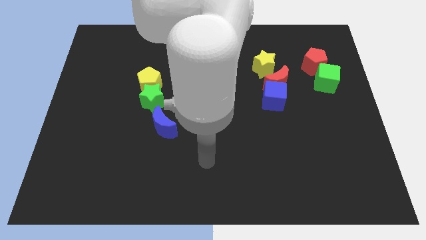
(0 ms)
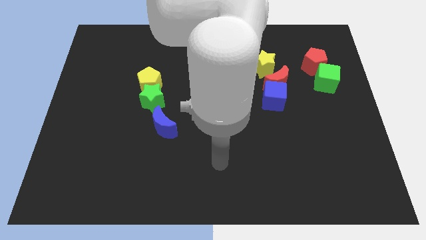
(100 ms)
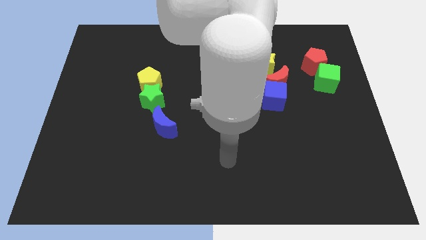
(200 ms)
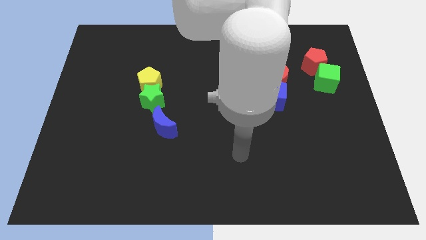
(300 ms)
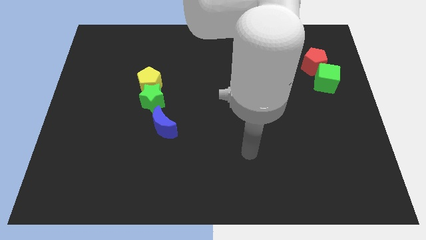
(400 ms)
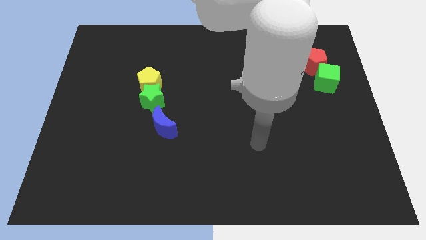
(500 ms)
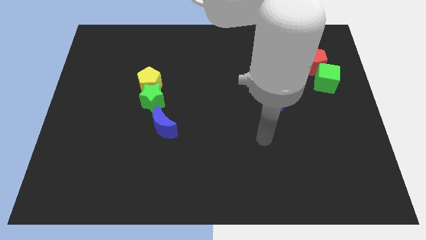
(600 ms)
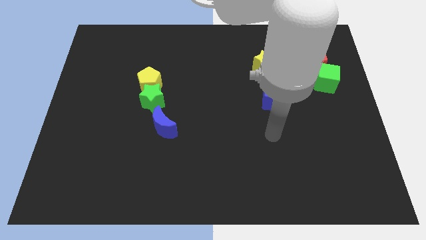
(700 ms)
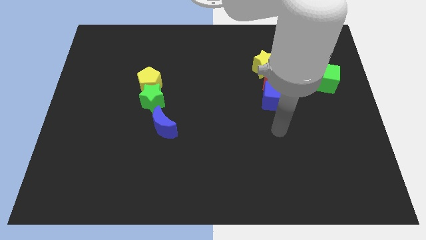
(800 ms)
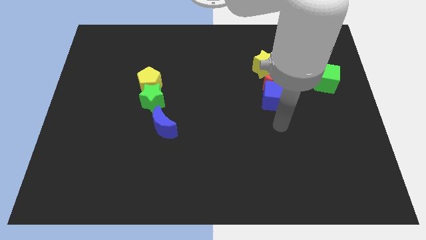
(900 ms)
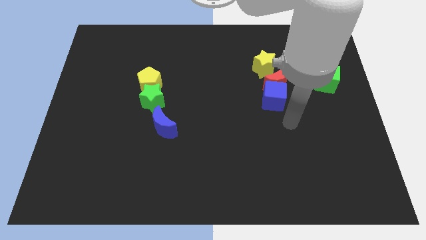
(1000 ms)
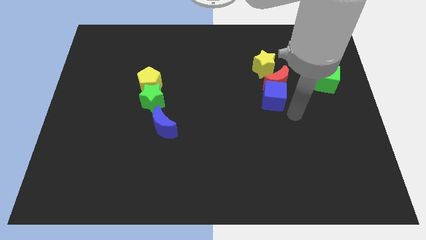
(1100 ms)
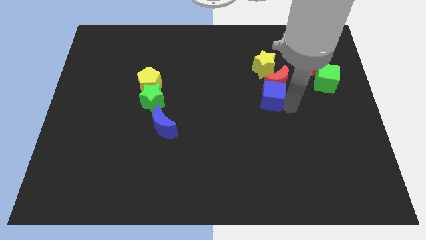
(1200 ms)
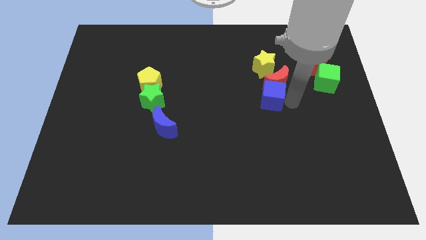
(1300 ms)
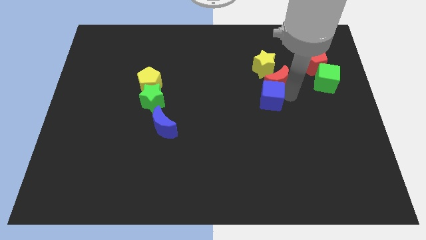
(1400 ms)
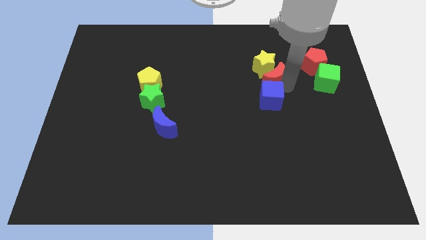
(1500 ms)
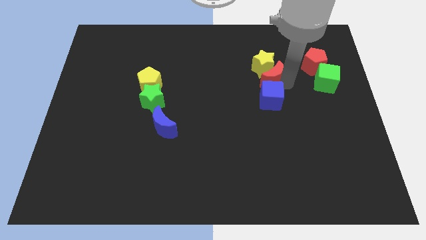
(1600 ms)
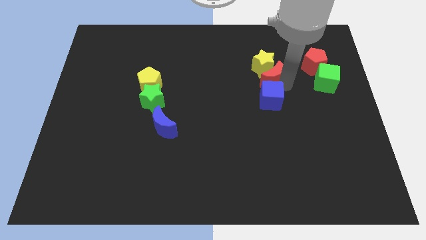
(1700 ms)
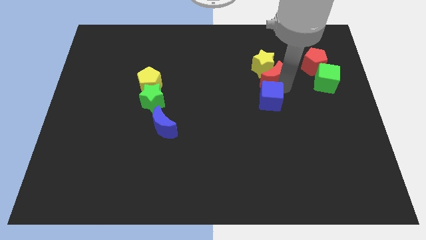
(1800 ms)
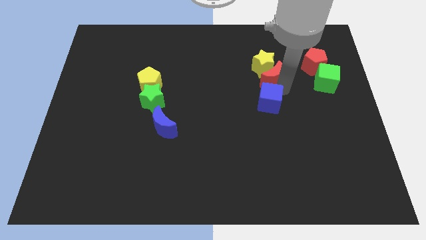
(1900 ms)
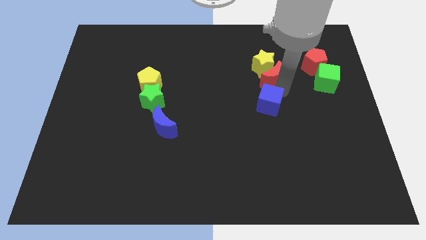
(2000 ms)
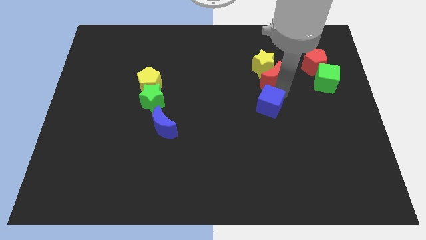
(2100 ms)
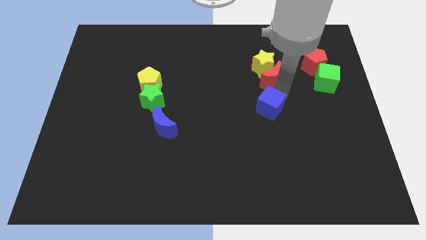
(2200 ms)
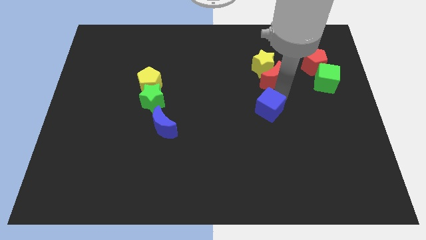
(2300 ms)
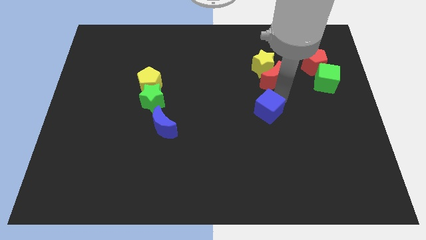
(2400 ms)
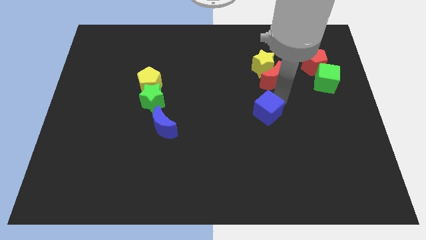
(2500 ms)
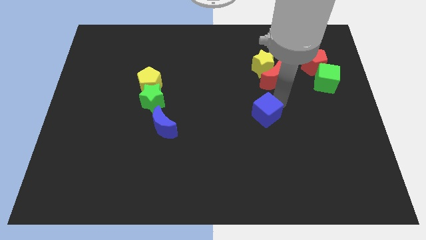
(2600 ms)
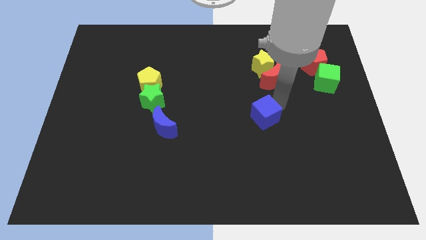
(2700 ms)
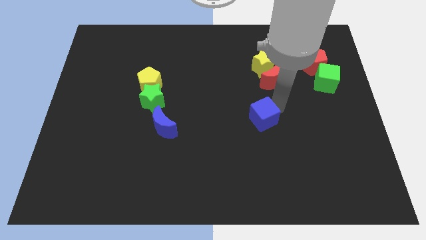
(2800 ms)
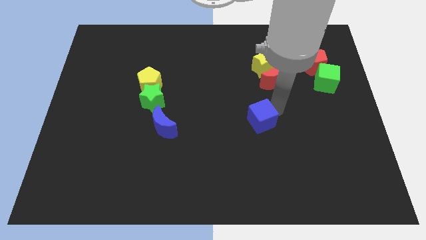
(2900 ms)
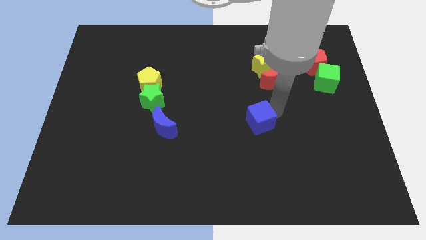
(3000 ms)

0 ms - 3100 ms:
slightly push the blue cube downwards and to the left

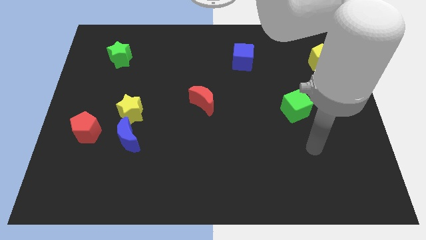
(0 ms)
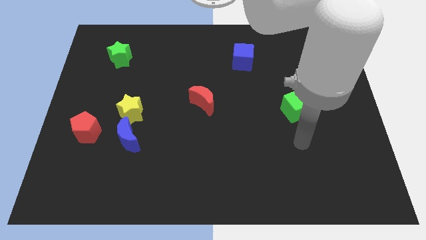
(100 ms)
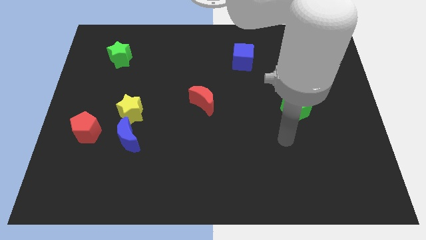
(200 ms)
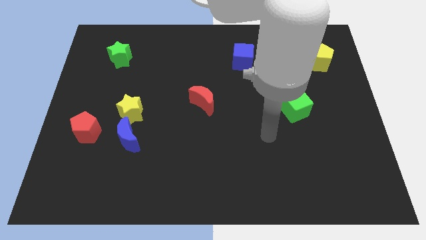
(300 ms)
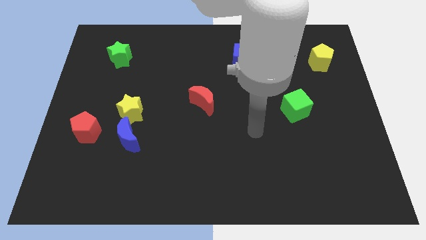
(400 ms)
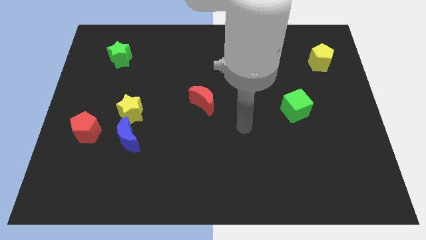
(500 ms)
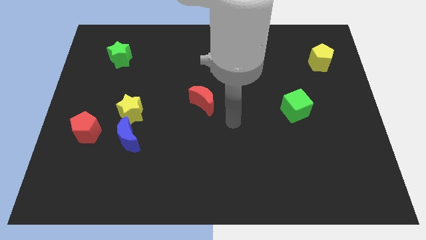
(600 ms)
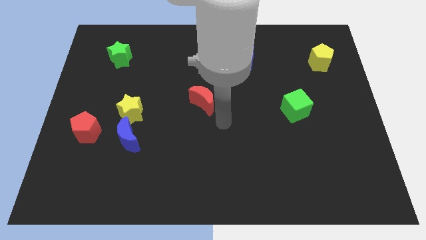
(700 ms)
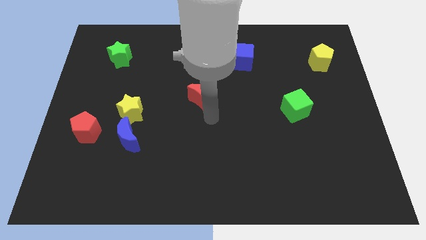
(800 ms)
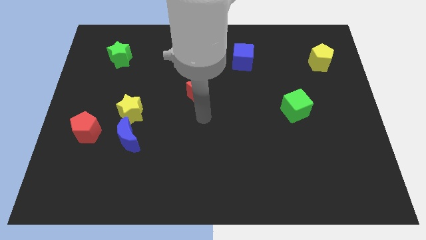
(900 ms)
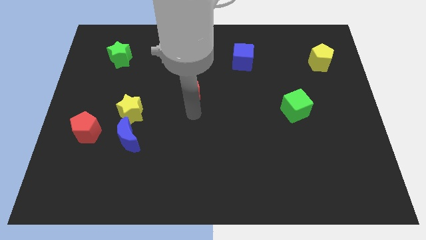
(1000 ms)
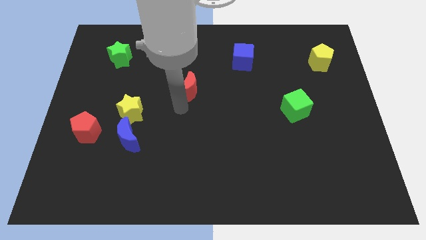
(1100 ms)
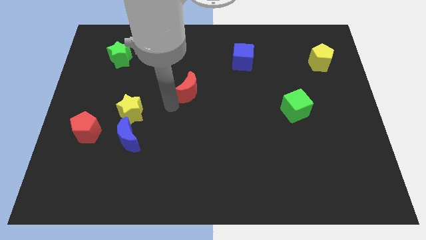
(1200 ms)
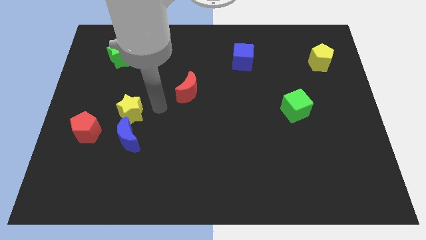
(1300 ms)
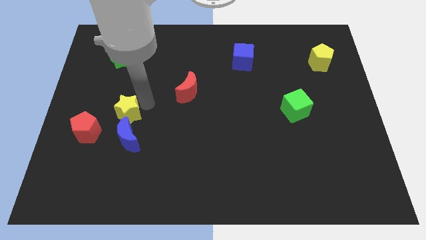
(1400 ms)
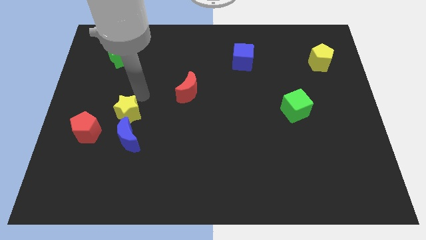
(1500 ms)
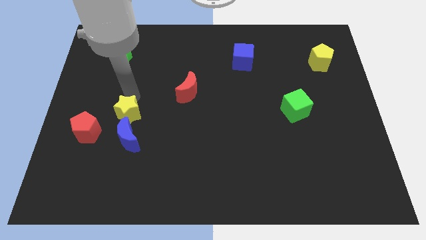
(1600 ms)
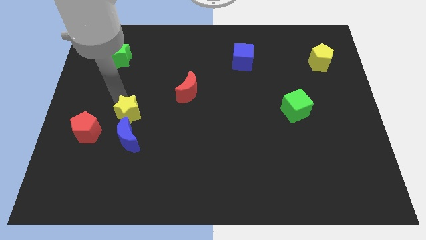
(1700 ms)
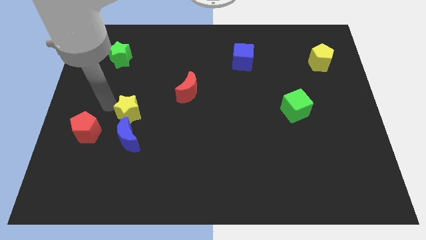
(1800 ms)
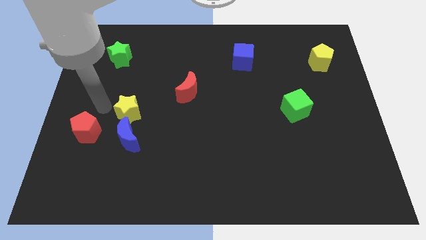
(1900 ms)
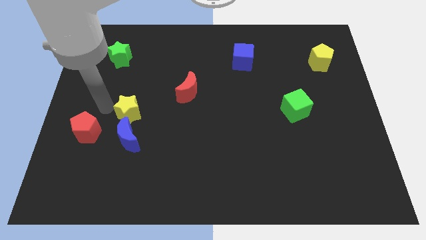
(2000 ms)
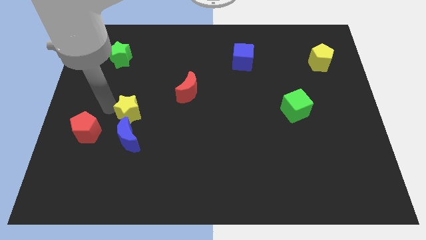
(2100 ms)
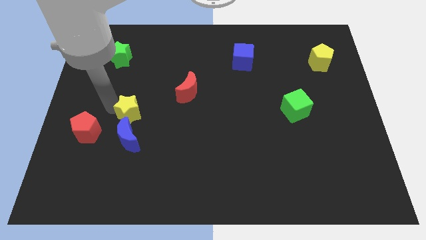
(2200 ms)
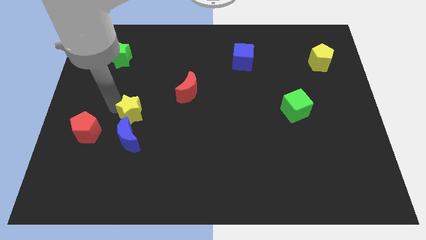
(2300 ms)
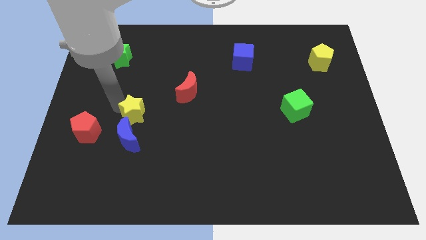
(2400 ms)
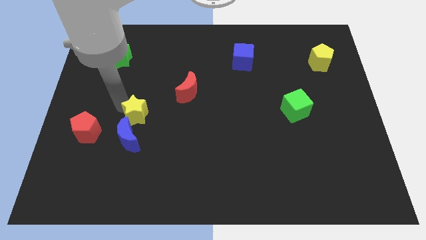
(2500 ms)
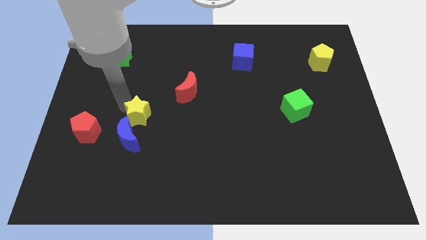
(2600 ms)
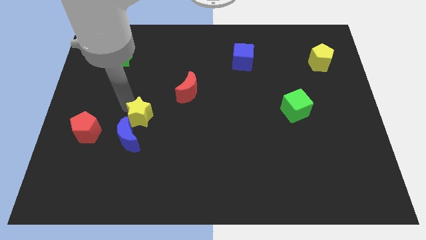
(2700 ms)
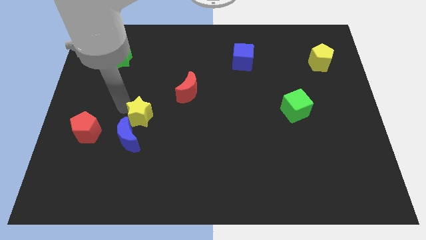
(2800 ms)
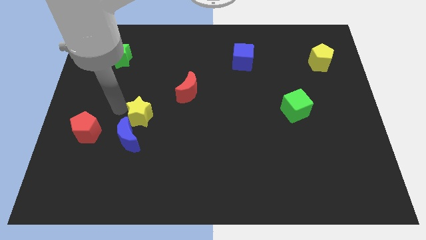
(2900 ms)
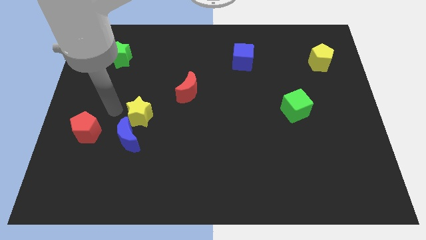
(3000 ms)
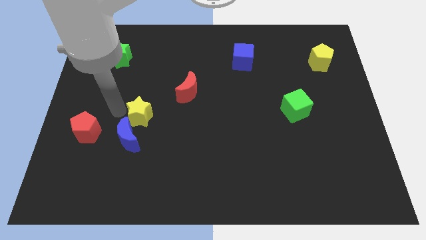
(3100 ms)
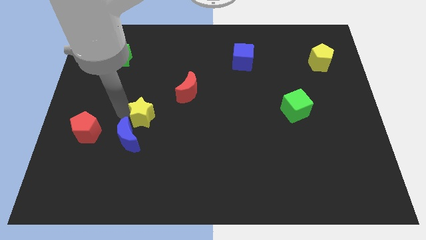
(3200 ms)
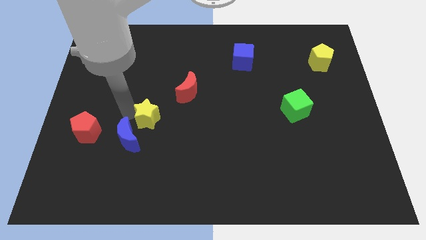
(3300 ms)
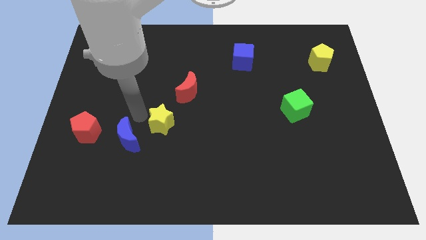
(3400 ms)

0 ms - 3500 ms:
slide the yellow star right a little

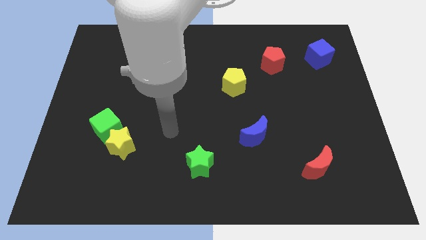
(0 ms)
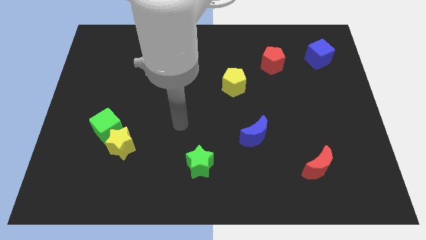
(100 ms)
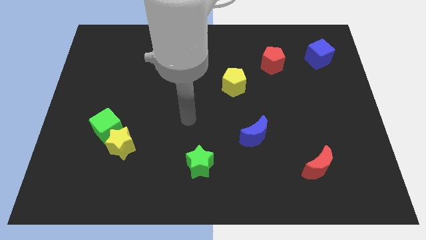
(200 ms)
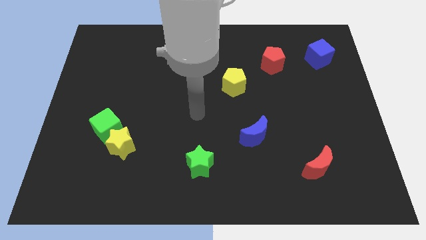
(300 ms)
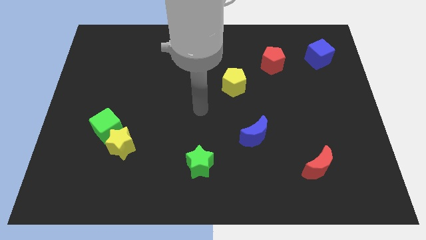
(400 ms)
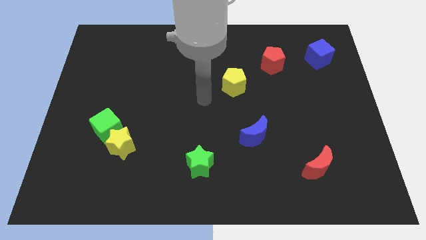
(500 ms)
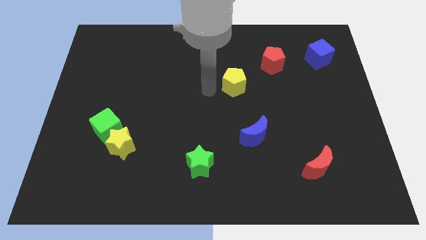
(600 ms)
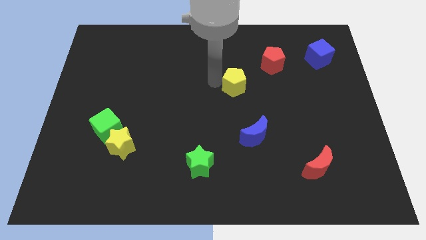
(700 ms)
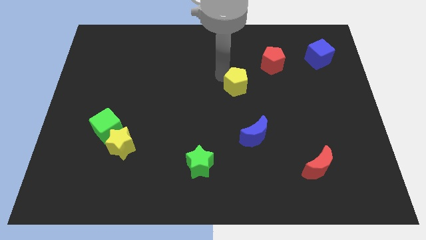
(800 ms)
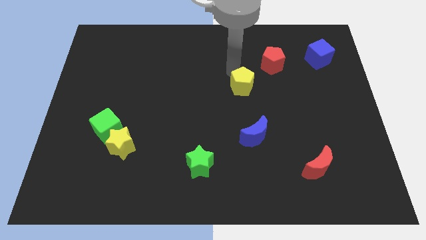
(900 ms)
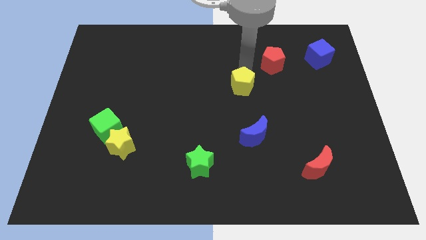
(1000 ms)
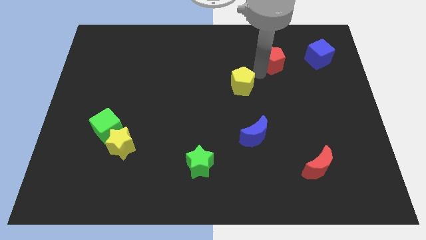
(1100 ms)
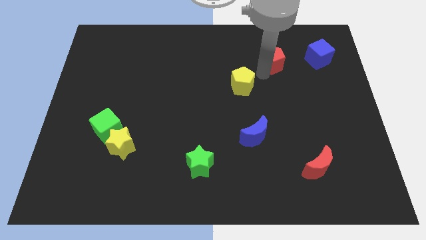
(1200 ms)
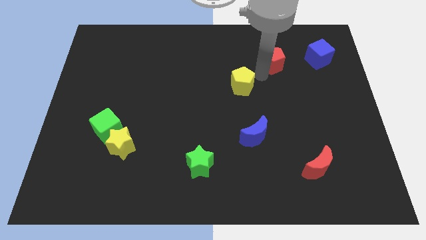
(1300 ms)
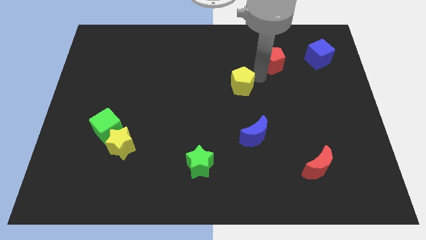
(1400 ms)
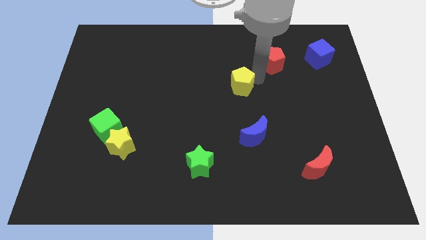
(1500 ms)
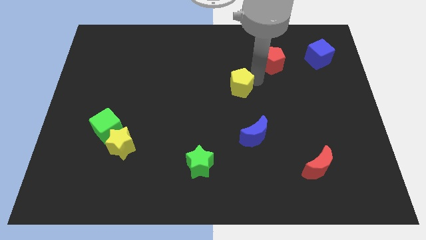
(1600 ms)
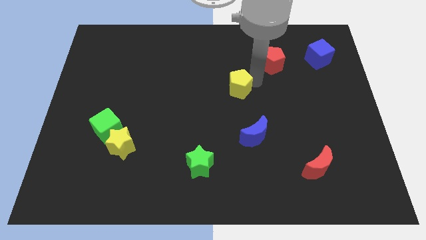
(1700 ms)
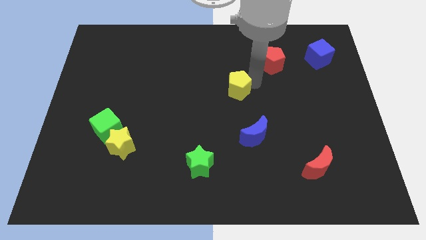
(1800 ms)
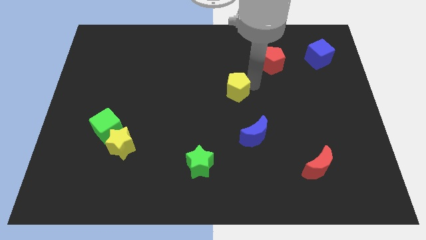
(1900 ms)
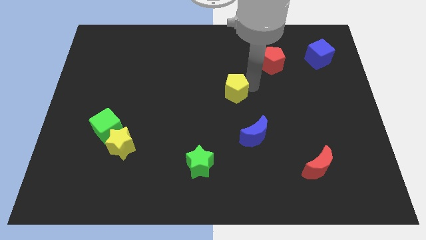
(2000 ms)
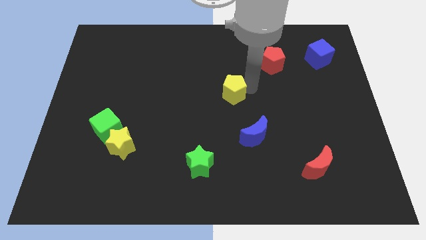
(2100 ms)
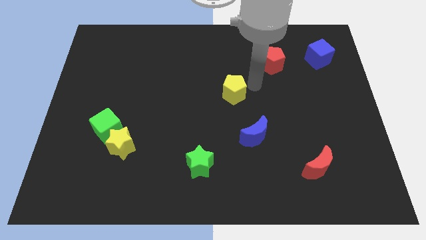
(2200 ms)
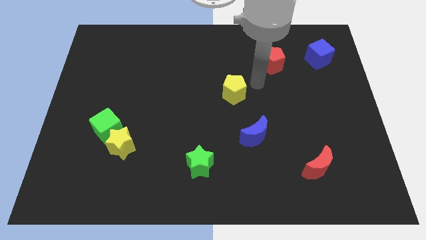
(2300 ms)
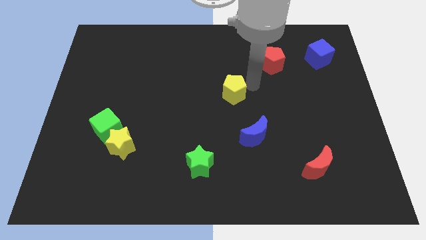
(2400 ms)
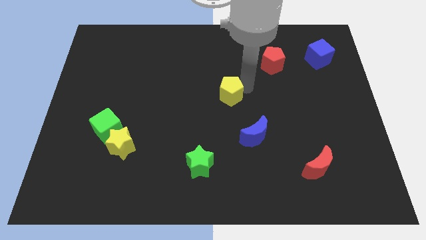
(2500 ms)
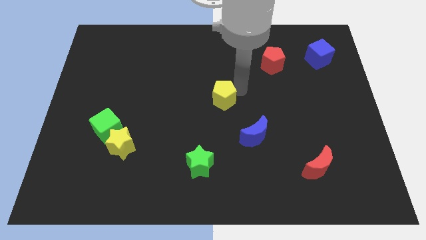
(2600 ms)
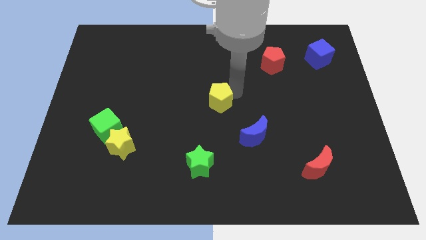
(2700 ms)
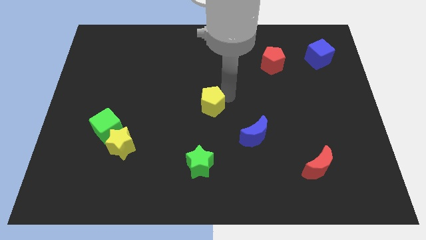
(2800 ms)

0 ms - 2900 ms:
slightly slide the yellow pentagon down and left
